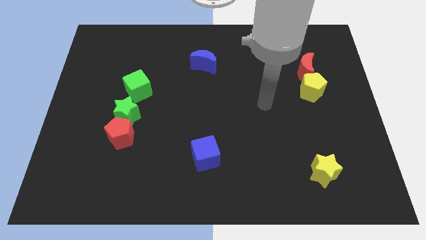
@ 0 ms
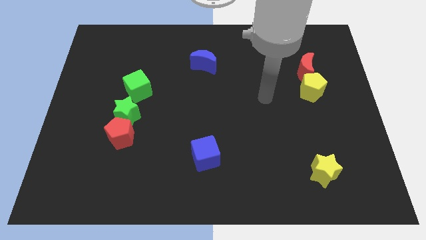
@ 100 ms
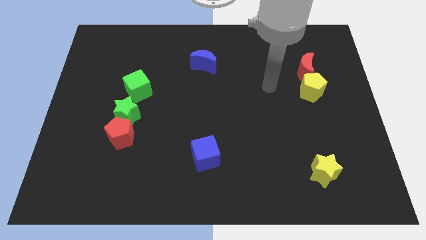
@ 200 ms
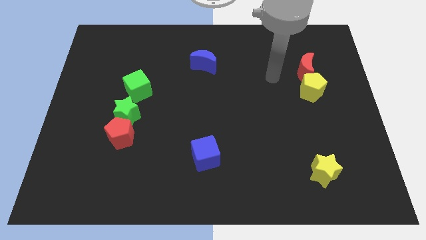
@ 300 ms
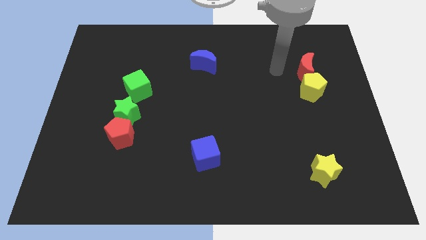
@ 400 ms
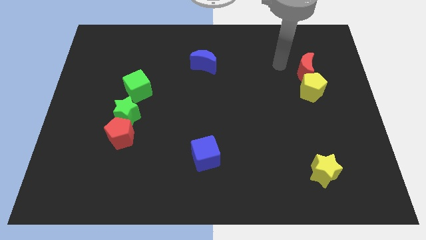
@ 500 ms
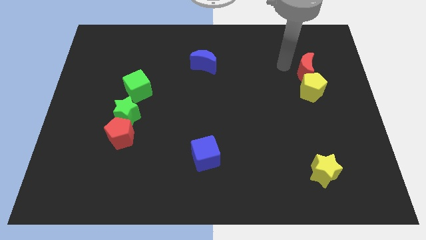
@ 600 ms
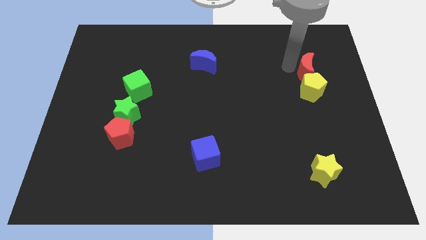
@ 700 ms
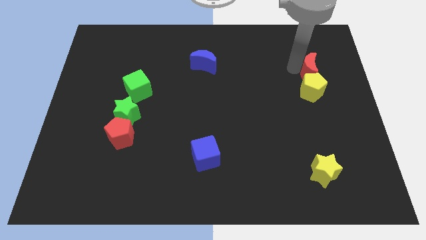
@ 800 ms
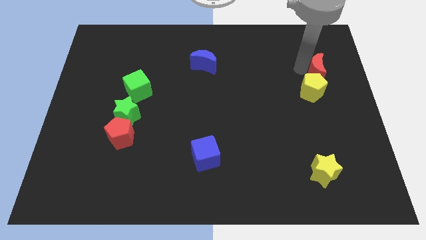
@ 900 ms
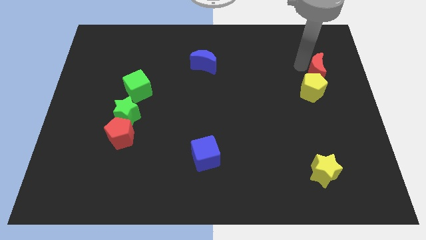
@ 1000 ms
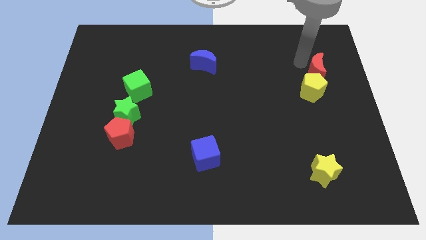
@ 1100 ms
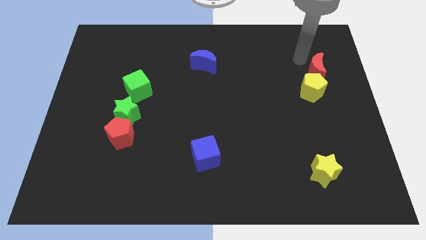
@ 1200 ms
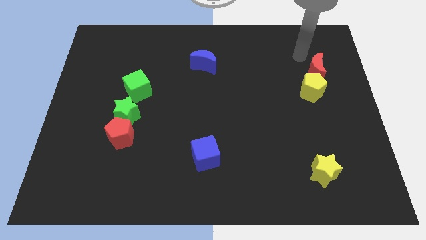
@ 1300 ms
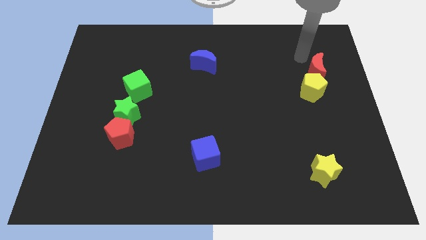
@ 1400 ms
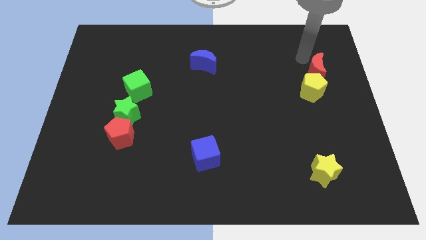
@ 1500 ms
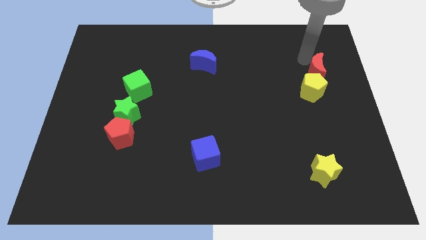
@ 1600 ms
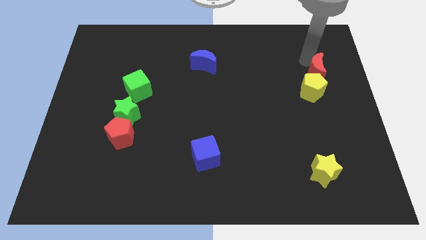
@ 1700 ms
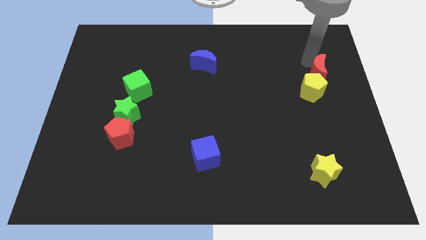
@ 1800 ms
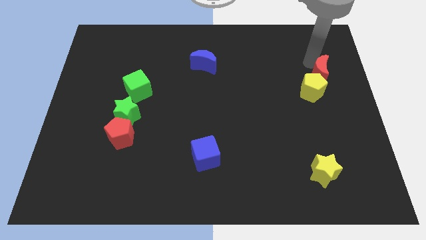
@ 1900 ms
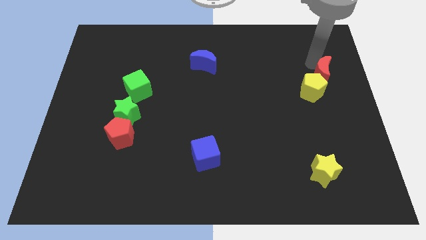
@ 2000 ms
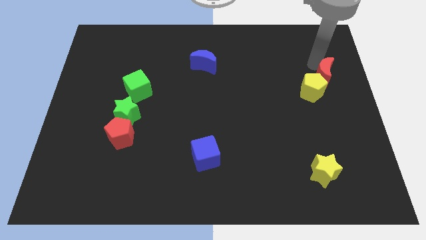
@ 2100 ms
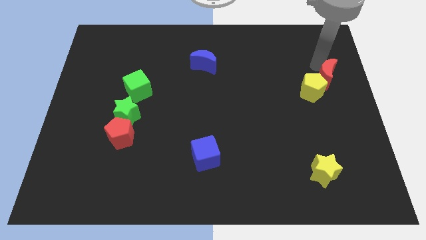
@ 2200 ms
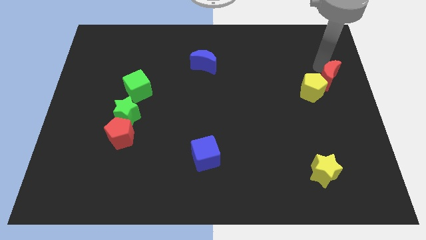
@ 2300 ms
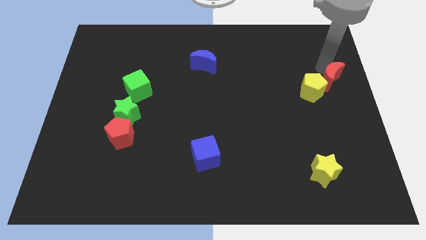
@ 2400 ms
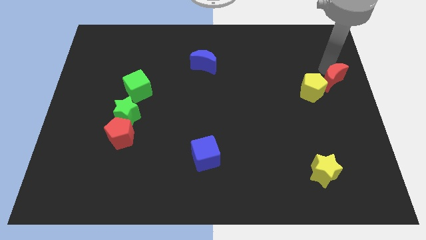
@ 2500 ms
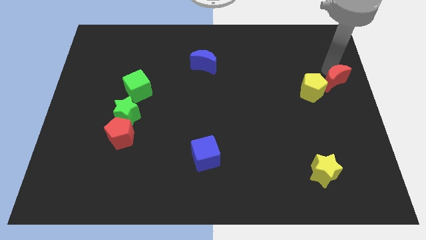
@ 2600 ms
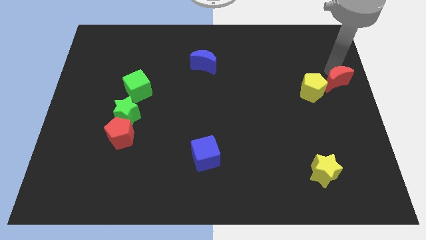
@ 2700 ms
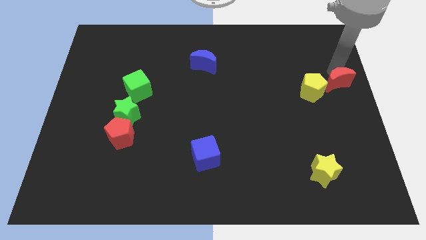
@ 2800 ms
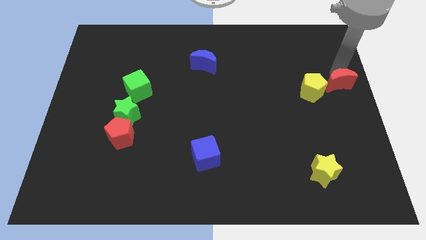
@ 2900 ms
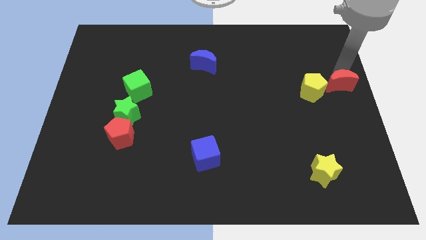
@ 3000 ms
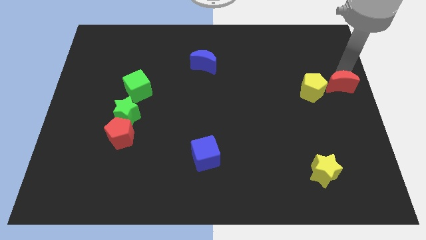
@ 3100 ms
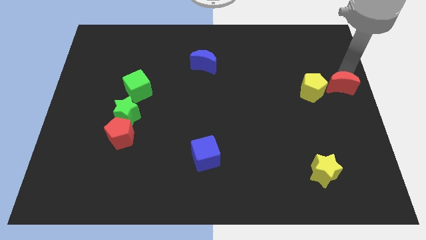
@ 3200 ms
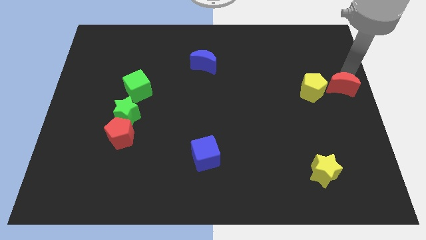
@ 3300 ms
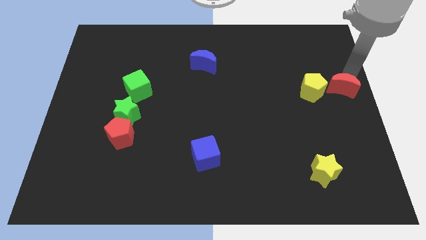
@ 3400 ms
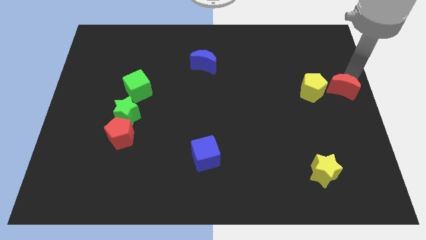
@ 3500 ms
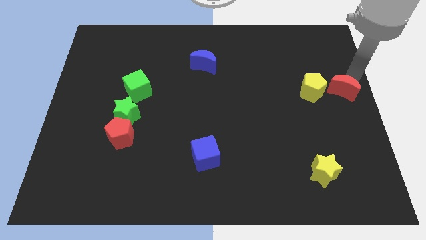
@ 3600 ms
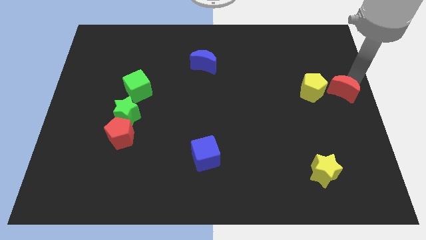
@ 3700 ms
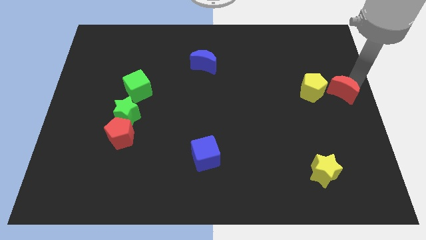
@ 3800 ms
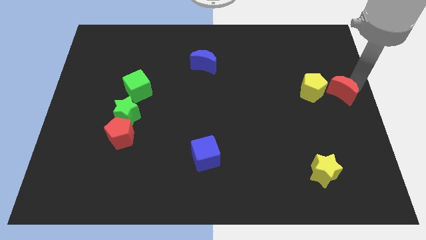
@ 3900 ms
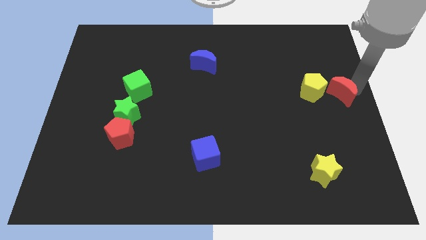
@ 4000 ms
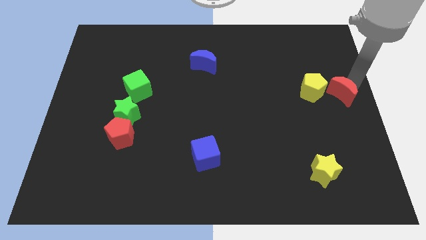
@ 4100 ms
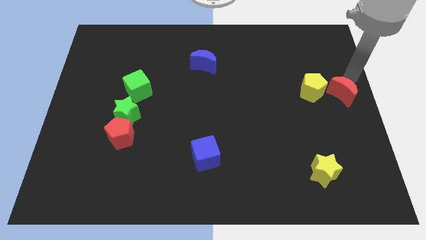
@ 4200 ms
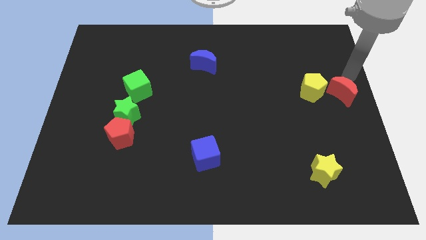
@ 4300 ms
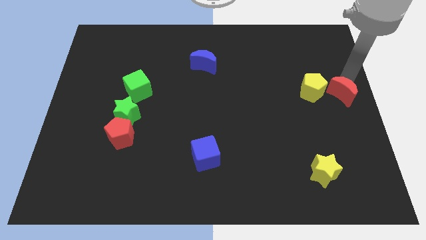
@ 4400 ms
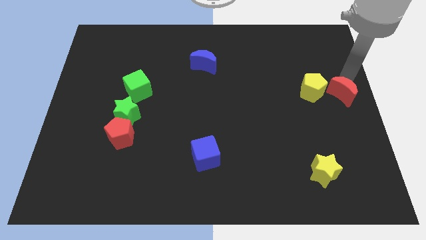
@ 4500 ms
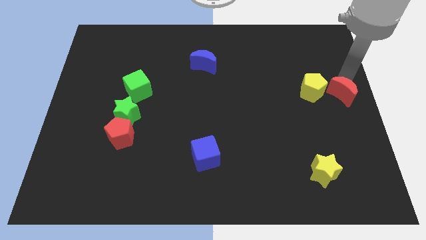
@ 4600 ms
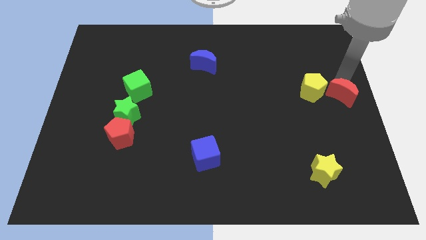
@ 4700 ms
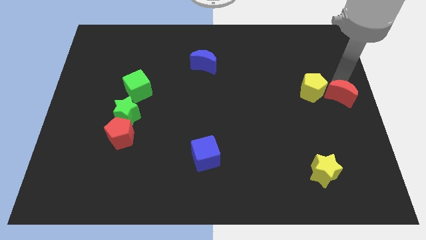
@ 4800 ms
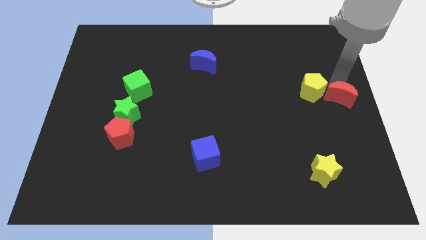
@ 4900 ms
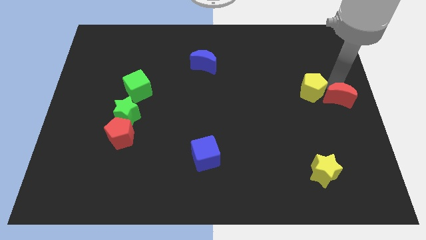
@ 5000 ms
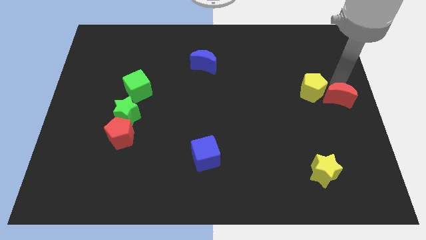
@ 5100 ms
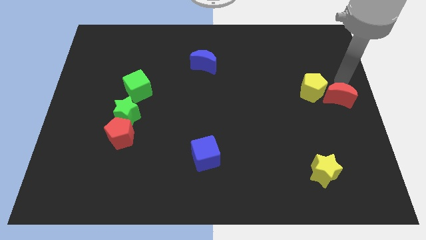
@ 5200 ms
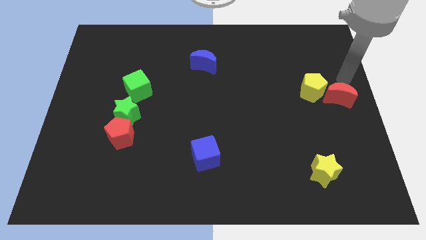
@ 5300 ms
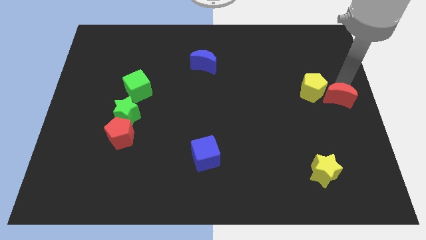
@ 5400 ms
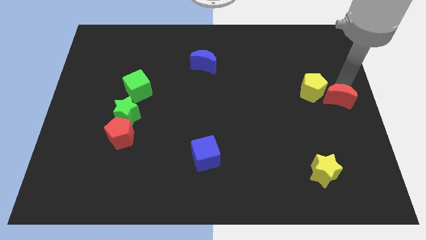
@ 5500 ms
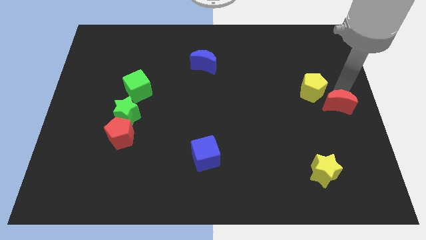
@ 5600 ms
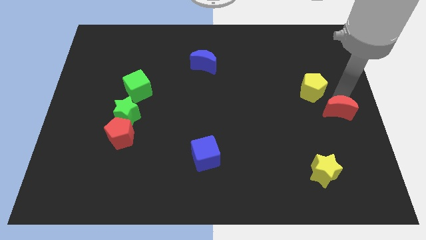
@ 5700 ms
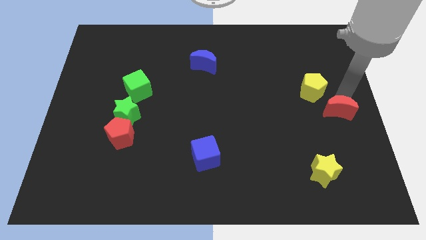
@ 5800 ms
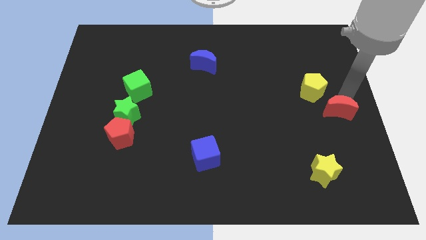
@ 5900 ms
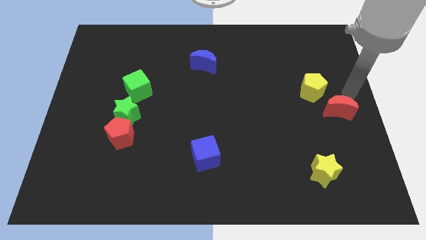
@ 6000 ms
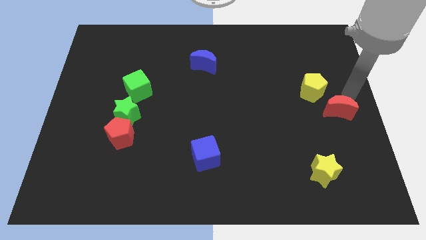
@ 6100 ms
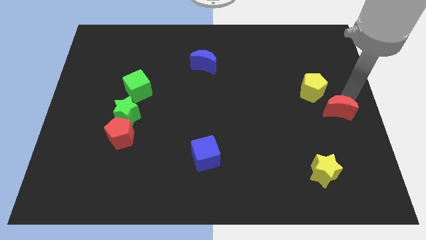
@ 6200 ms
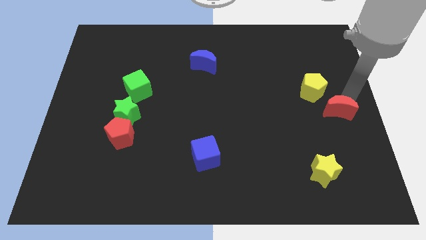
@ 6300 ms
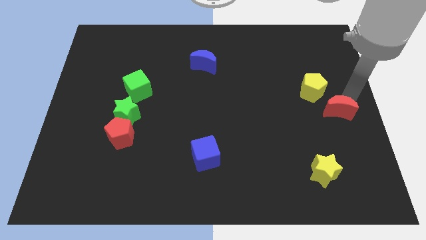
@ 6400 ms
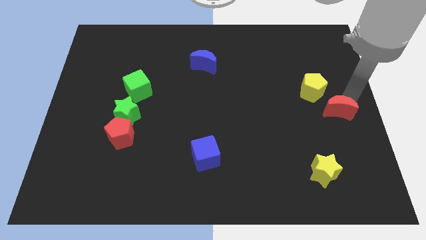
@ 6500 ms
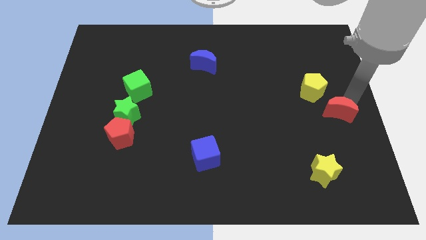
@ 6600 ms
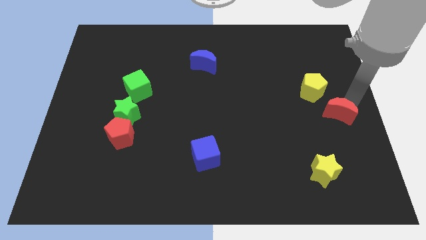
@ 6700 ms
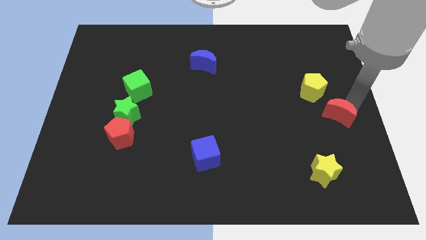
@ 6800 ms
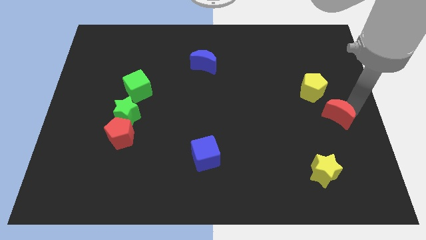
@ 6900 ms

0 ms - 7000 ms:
push the red moon to the bottom of the yellow pentagon

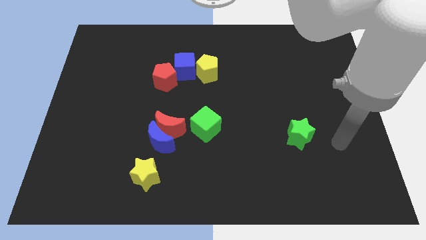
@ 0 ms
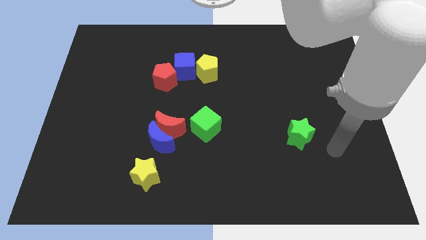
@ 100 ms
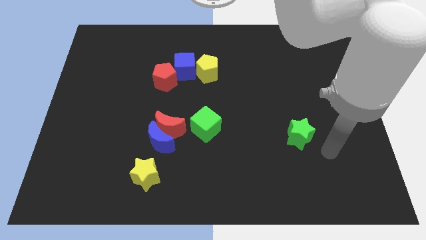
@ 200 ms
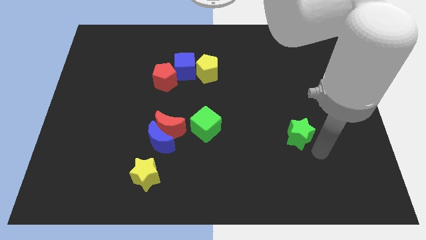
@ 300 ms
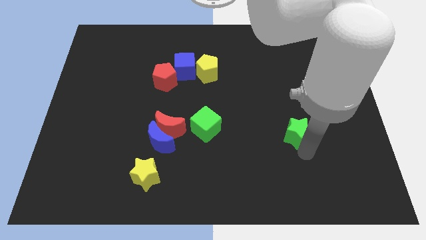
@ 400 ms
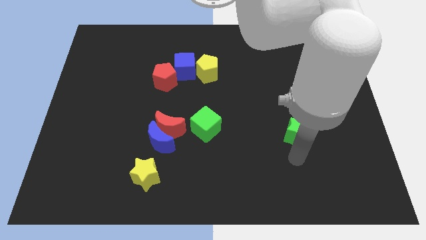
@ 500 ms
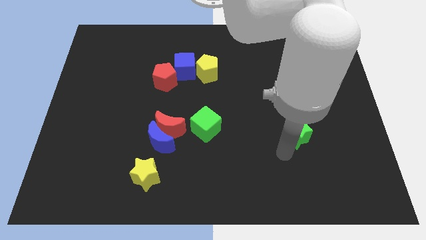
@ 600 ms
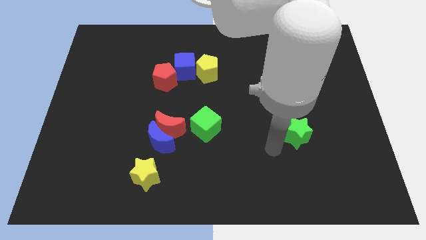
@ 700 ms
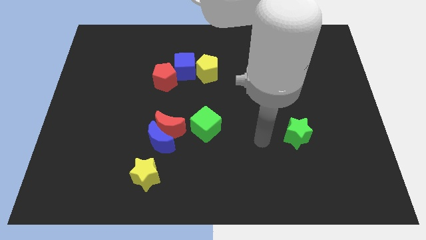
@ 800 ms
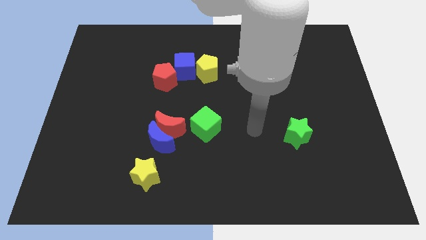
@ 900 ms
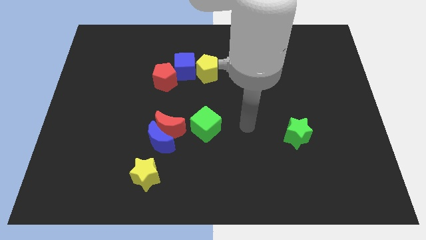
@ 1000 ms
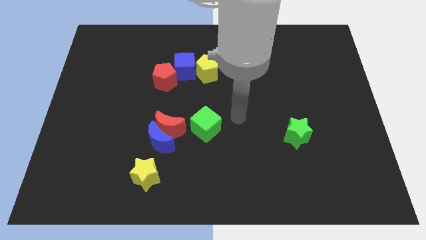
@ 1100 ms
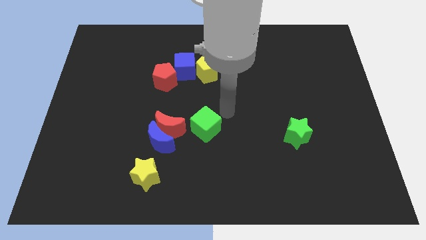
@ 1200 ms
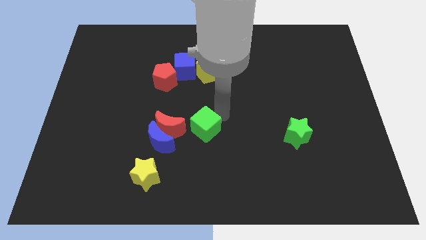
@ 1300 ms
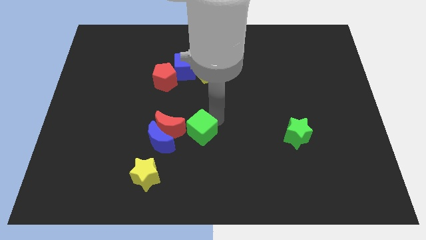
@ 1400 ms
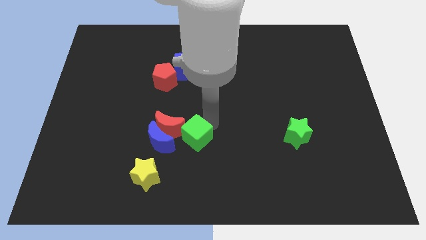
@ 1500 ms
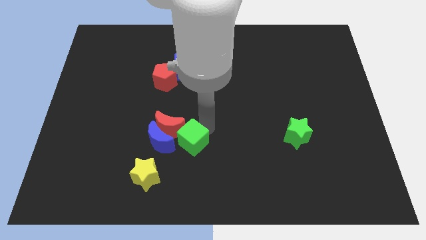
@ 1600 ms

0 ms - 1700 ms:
push the green cube to the top right of the yellow star

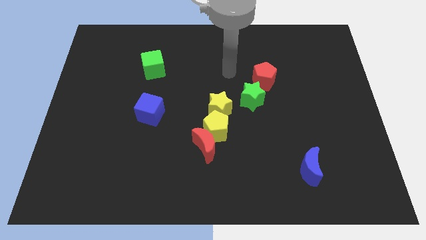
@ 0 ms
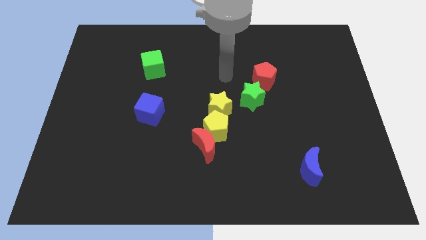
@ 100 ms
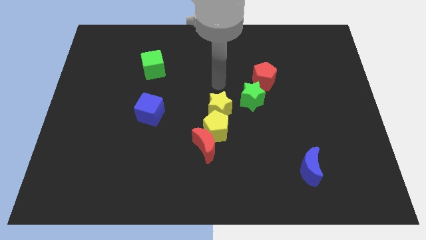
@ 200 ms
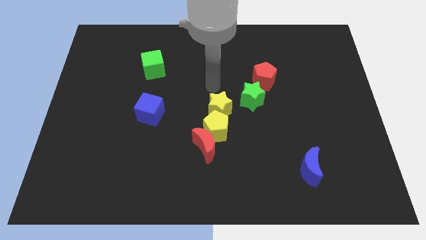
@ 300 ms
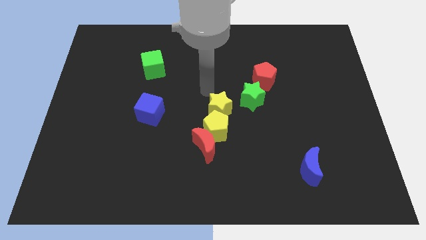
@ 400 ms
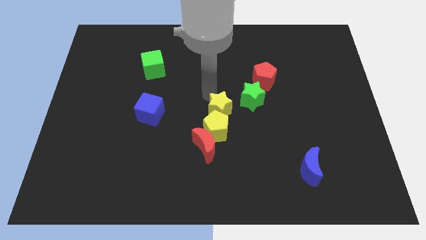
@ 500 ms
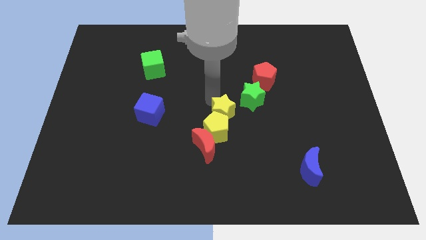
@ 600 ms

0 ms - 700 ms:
put the yellow star to the top right of the red moon
